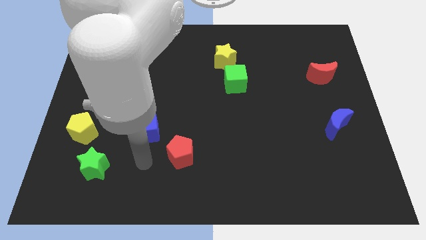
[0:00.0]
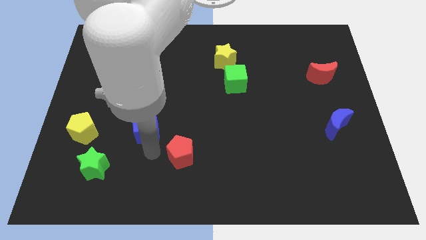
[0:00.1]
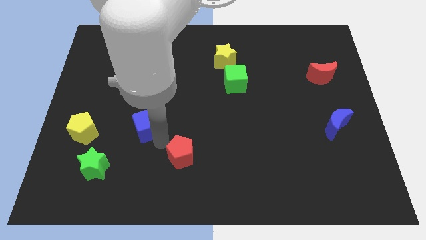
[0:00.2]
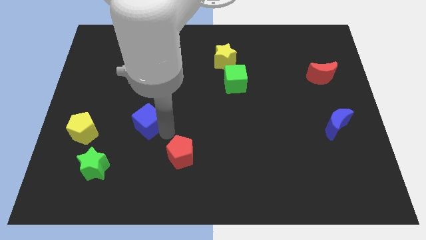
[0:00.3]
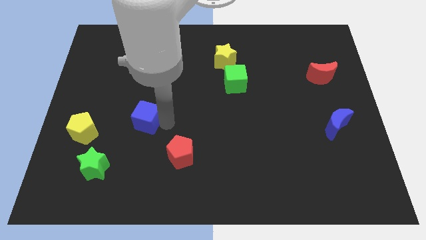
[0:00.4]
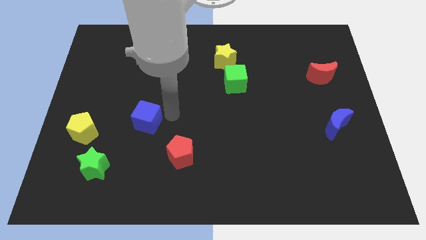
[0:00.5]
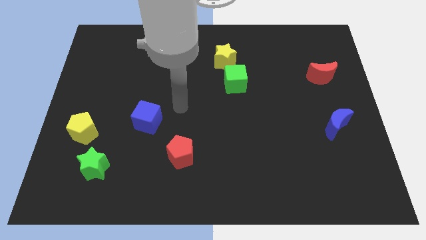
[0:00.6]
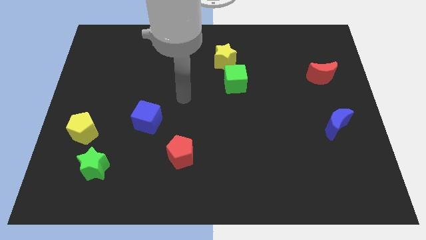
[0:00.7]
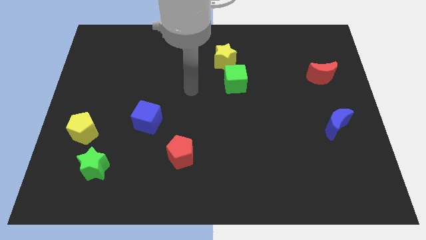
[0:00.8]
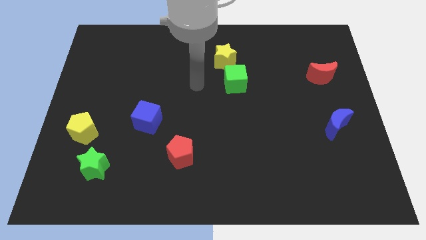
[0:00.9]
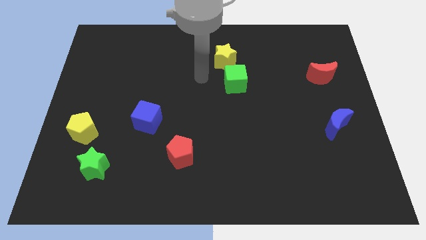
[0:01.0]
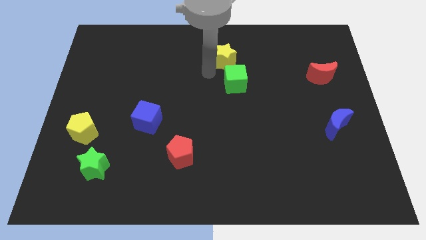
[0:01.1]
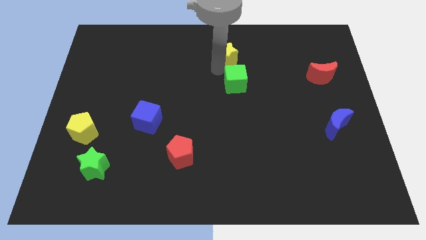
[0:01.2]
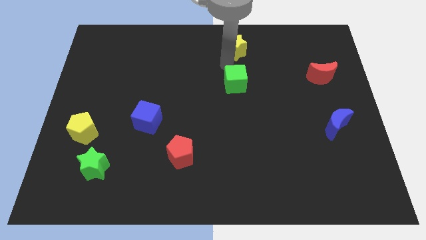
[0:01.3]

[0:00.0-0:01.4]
pull the green cube apart from the yellow star

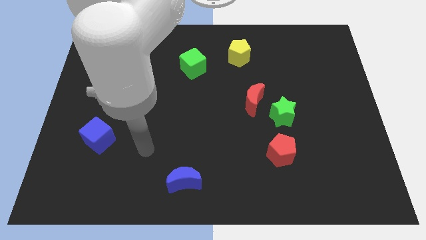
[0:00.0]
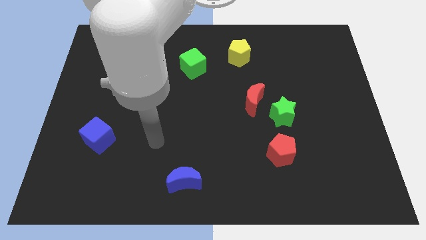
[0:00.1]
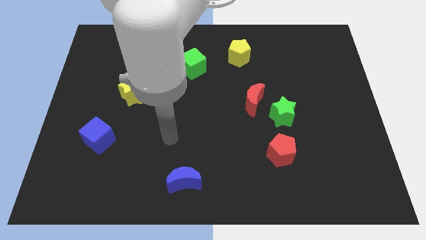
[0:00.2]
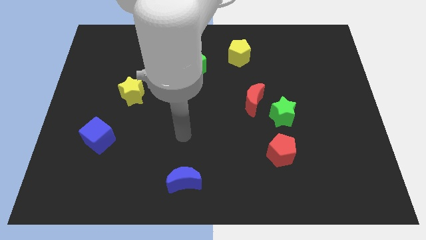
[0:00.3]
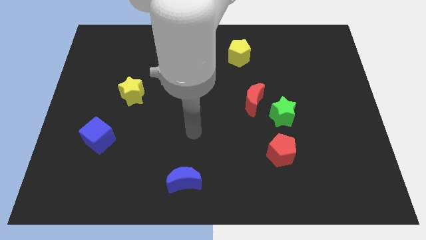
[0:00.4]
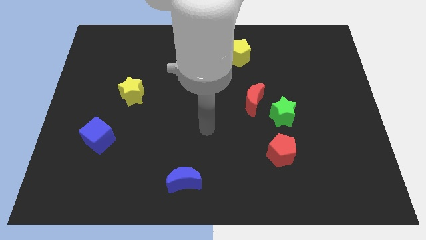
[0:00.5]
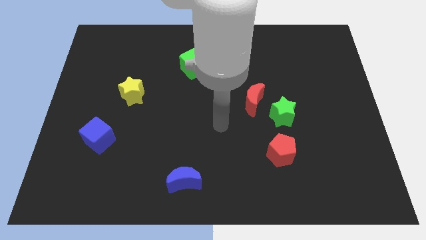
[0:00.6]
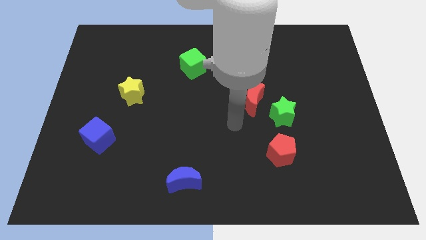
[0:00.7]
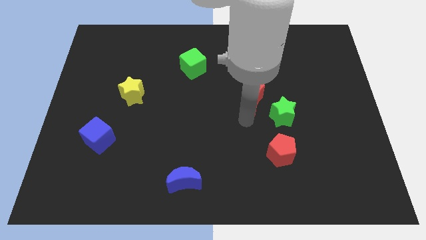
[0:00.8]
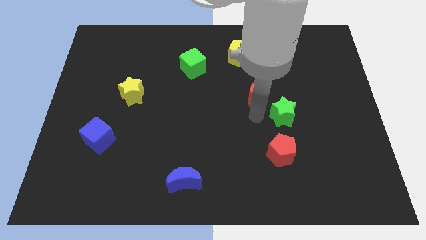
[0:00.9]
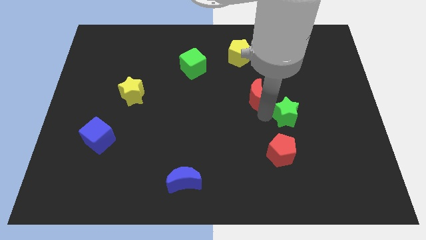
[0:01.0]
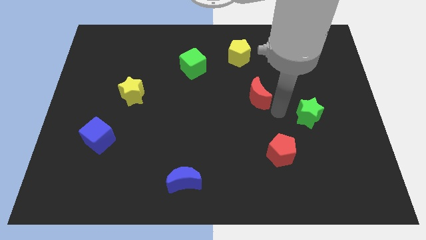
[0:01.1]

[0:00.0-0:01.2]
move the red moon away from the green star

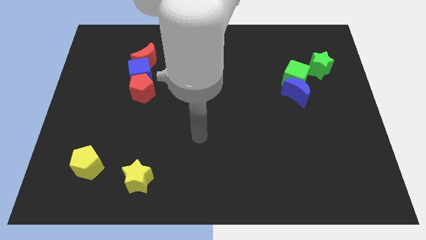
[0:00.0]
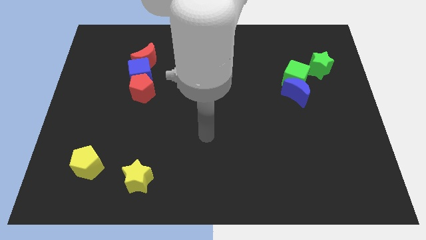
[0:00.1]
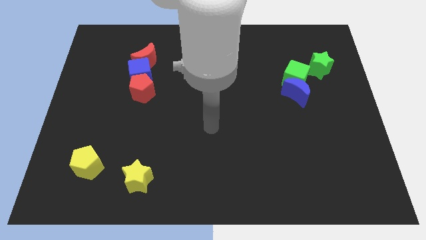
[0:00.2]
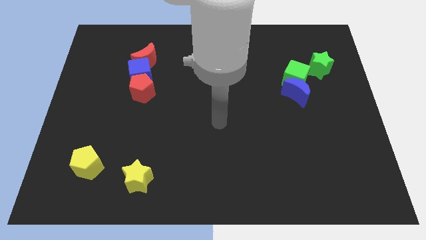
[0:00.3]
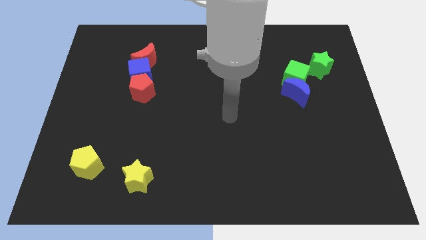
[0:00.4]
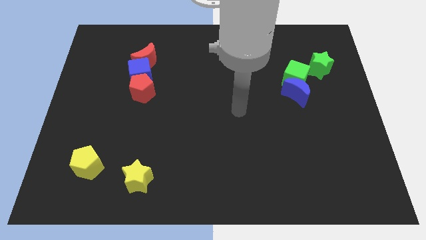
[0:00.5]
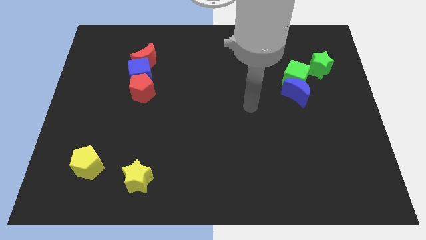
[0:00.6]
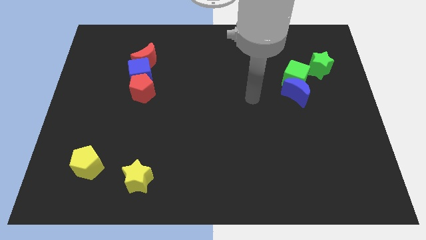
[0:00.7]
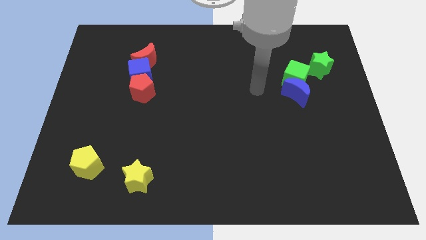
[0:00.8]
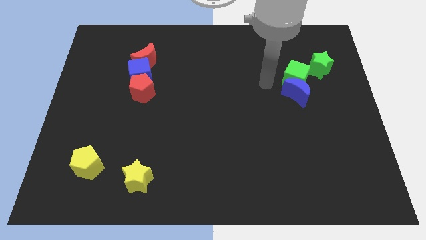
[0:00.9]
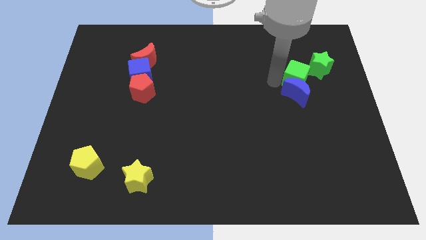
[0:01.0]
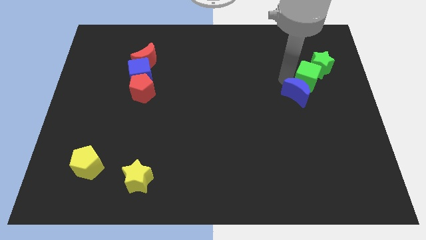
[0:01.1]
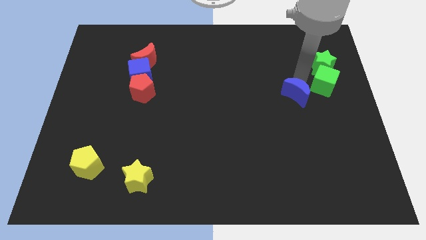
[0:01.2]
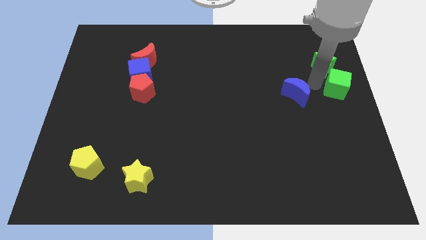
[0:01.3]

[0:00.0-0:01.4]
pull the blue moon apart from the green cube

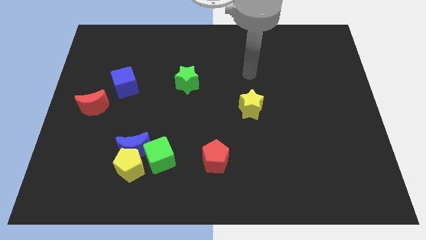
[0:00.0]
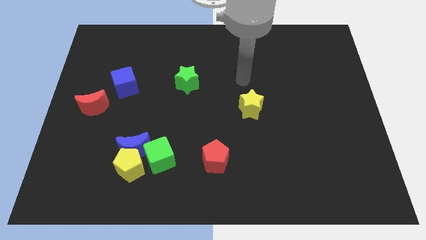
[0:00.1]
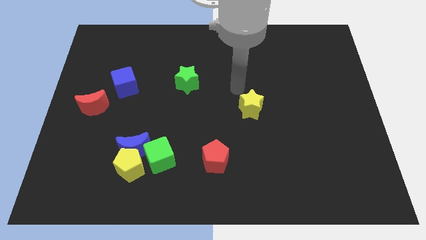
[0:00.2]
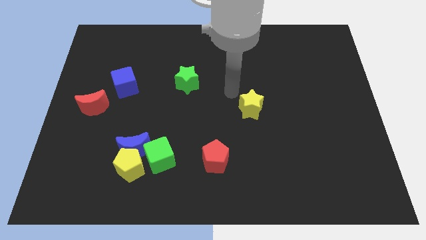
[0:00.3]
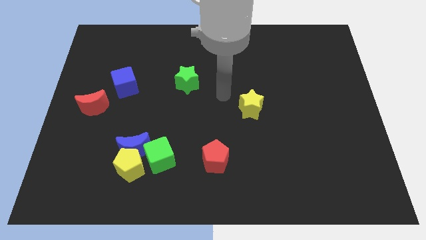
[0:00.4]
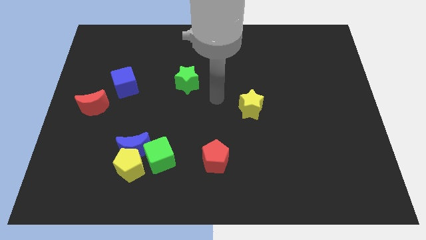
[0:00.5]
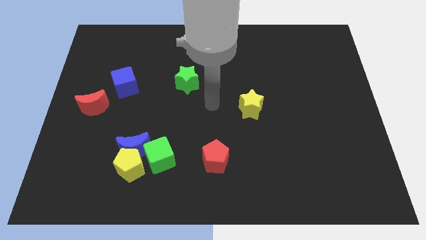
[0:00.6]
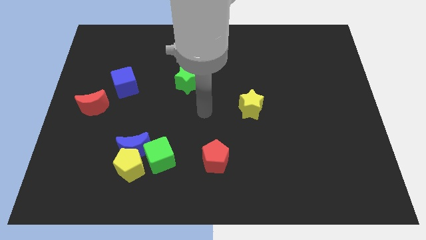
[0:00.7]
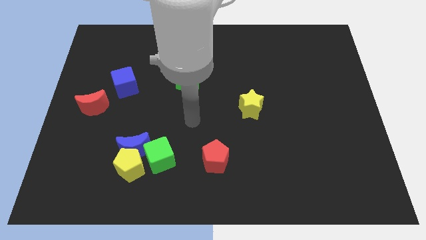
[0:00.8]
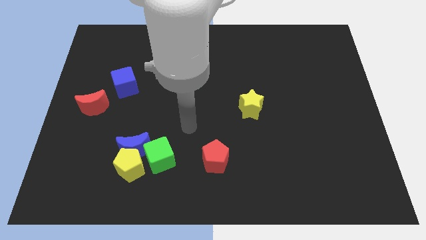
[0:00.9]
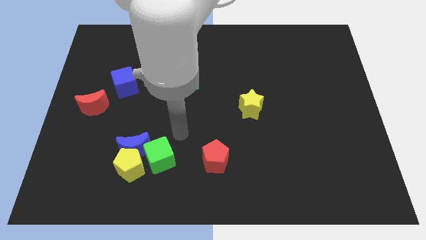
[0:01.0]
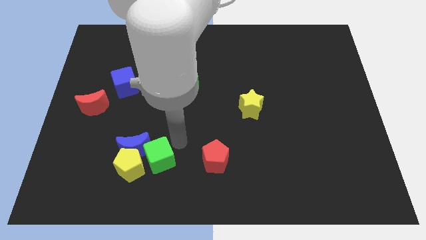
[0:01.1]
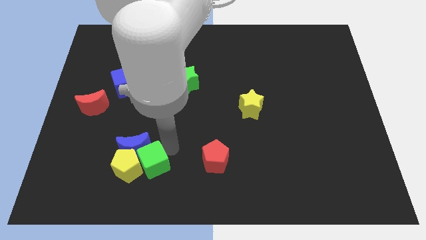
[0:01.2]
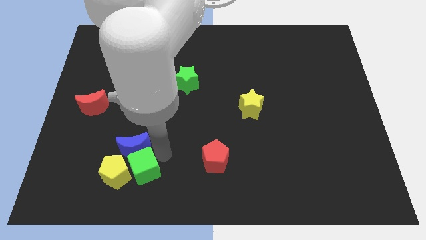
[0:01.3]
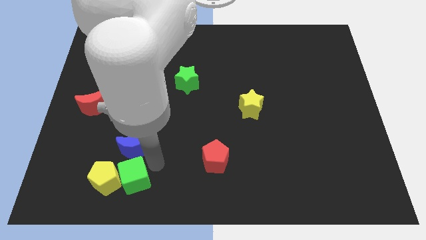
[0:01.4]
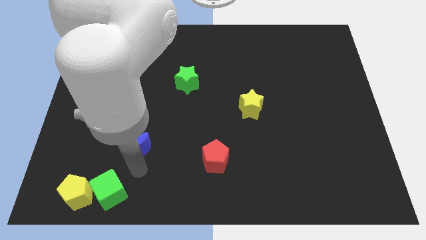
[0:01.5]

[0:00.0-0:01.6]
separate the blue moon from the yellow pentagon and green cube

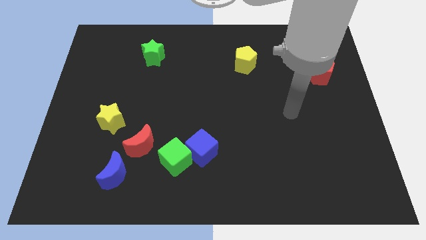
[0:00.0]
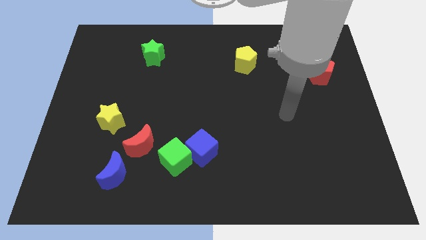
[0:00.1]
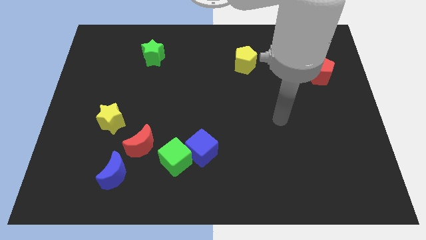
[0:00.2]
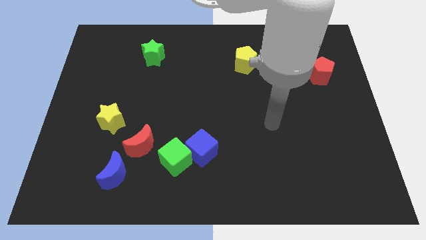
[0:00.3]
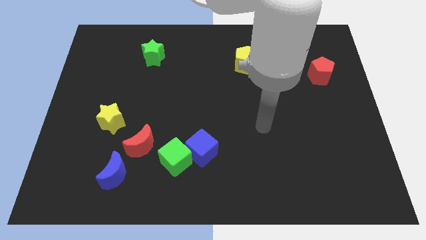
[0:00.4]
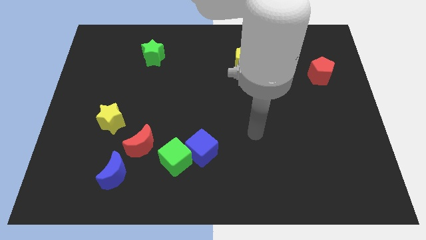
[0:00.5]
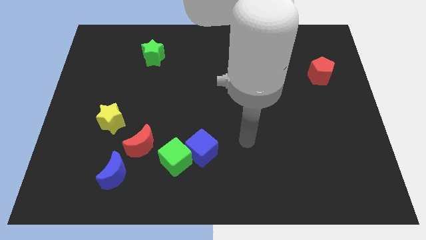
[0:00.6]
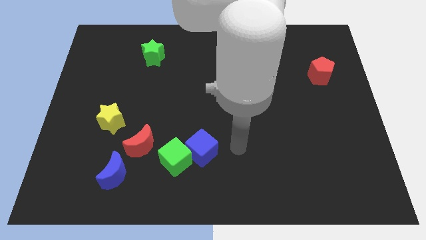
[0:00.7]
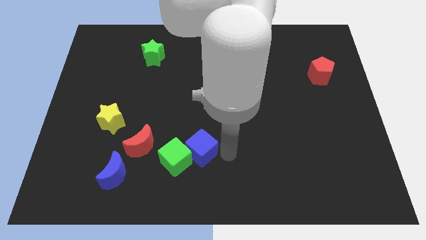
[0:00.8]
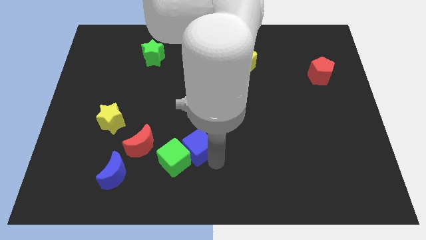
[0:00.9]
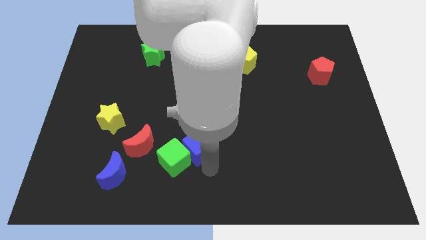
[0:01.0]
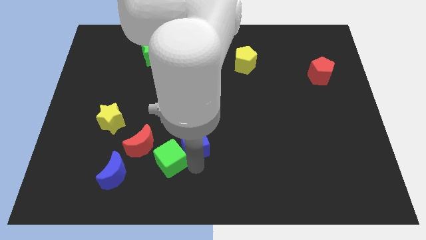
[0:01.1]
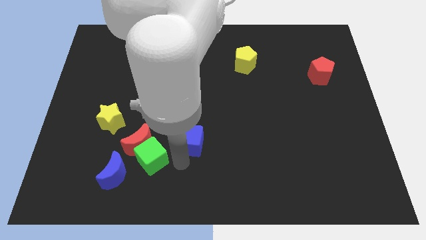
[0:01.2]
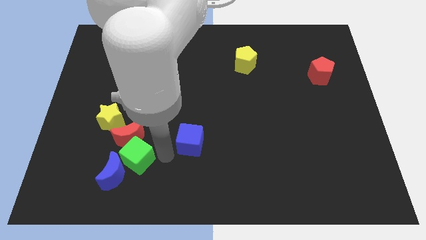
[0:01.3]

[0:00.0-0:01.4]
pull the blue cube apart from the green cube

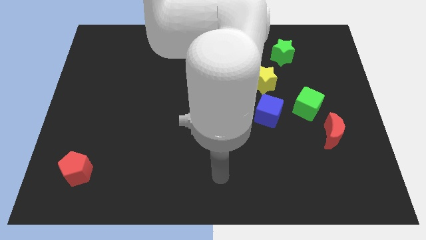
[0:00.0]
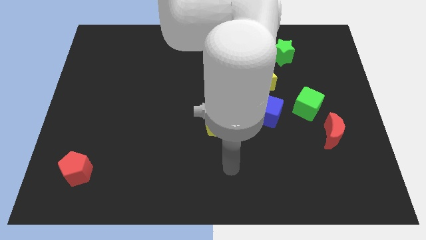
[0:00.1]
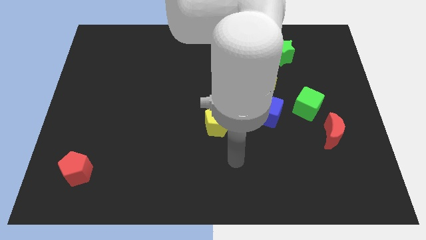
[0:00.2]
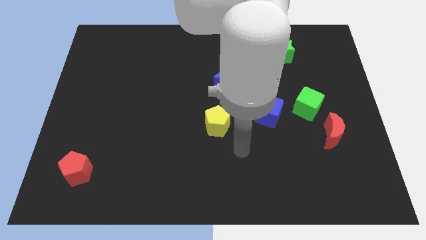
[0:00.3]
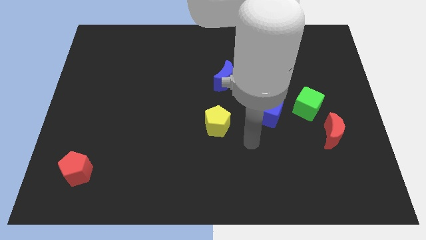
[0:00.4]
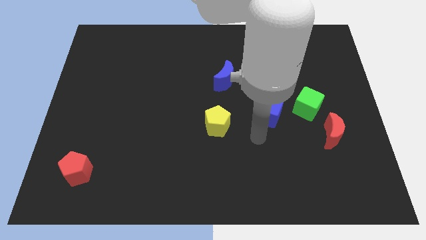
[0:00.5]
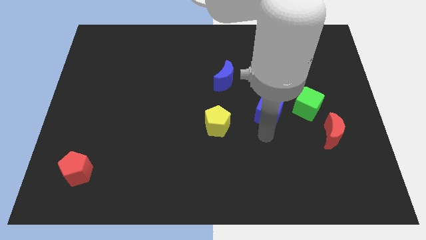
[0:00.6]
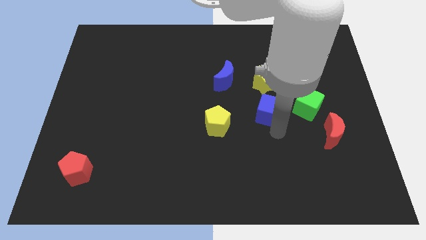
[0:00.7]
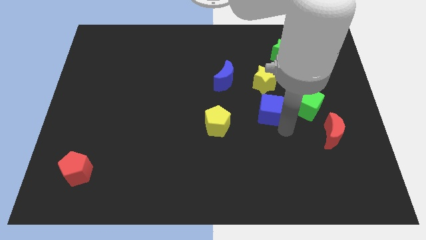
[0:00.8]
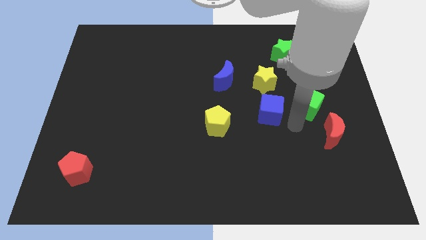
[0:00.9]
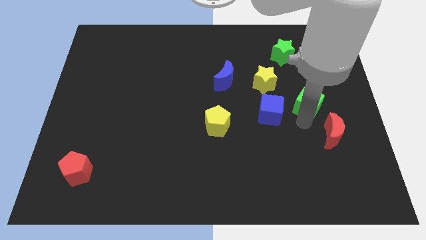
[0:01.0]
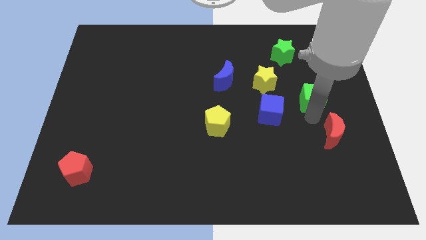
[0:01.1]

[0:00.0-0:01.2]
pull the red moon apart from the green cube

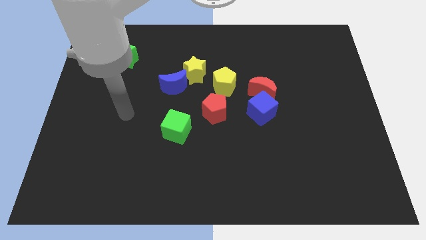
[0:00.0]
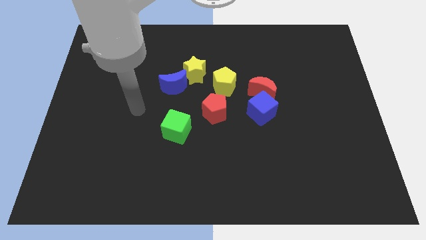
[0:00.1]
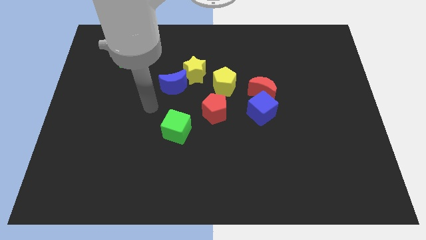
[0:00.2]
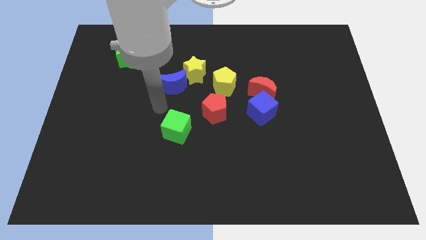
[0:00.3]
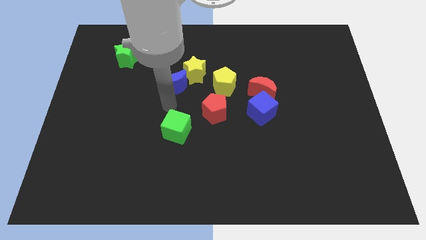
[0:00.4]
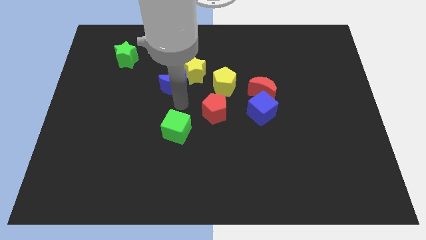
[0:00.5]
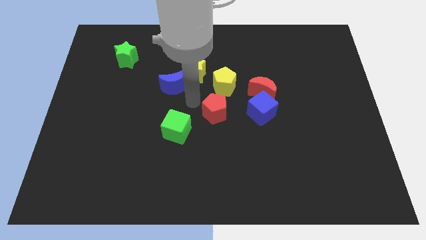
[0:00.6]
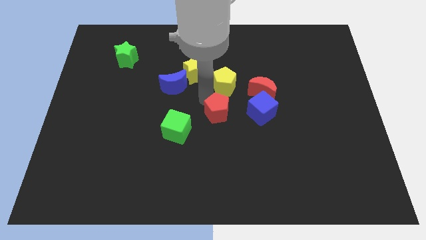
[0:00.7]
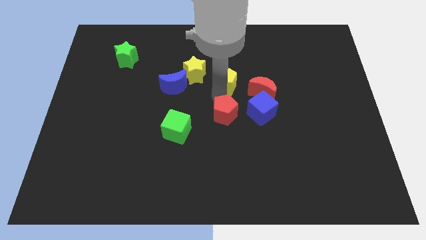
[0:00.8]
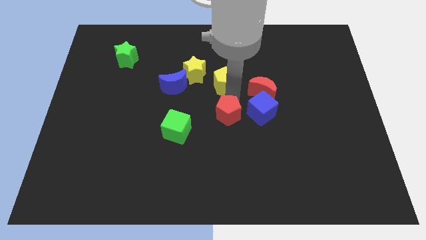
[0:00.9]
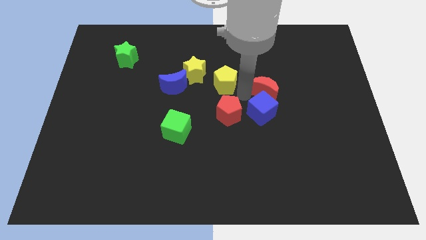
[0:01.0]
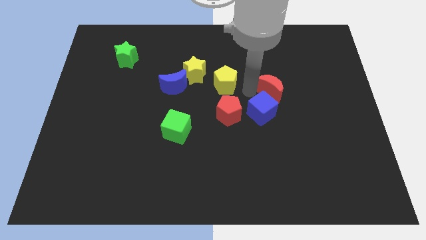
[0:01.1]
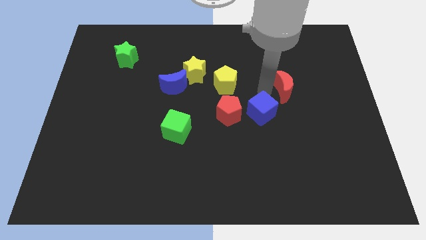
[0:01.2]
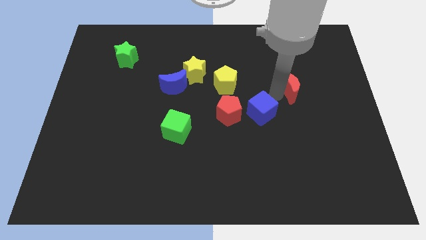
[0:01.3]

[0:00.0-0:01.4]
separate the blue cube from the red moon
